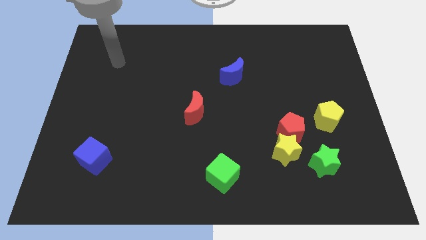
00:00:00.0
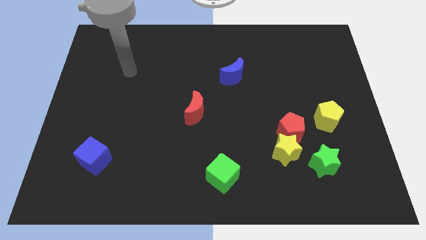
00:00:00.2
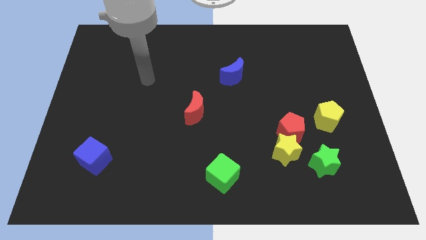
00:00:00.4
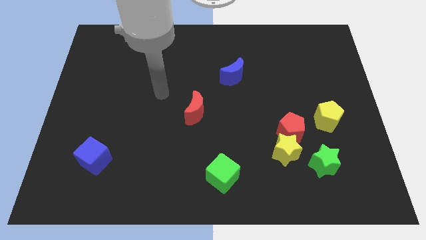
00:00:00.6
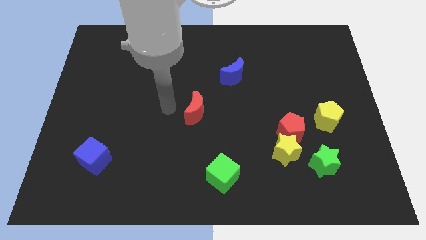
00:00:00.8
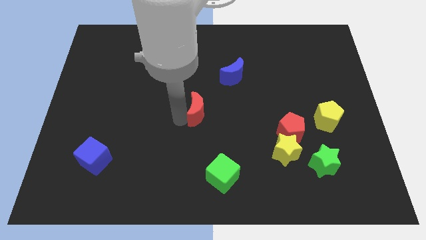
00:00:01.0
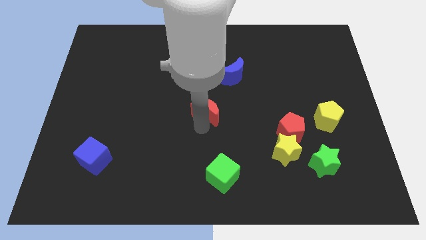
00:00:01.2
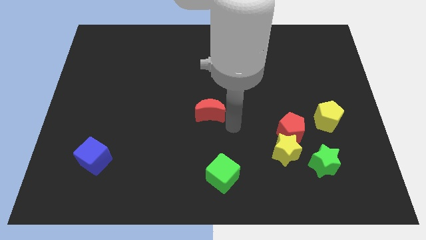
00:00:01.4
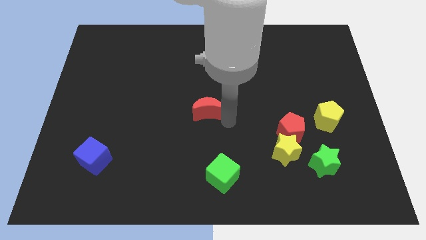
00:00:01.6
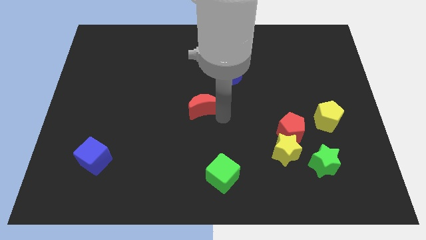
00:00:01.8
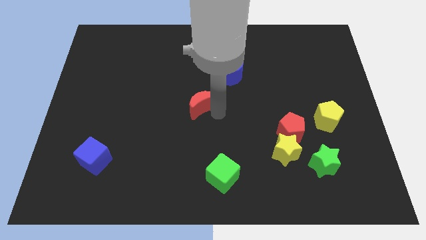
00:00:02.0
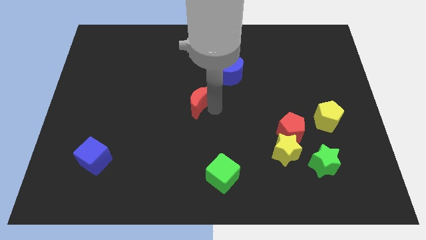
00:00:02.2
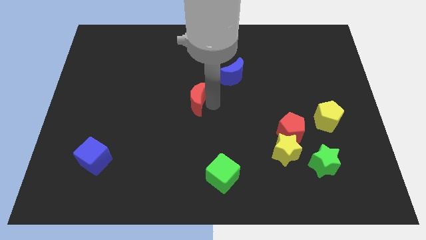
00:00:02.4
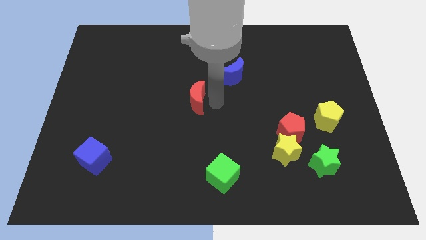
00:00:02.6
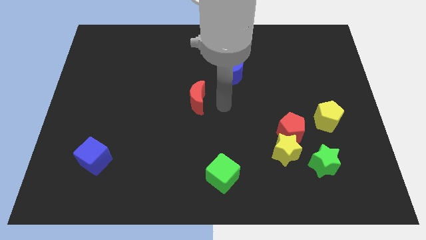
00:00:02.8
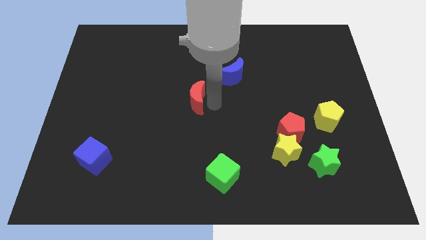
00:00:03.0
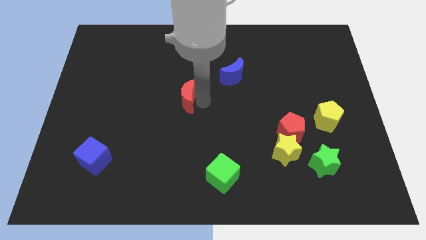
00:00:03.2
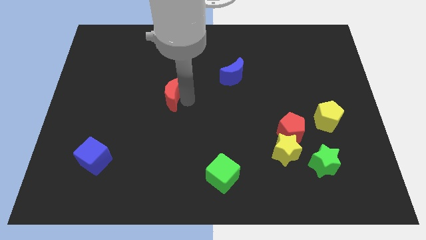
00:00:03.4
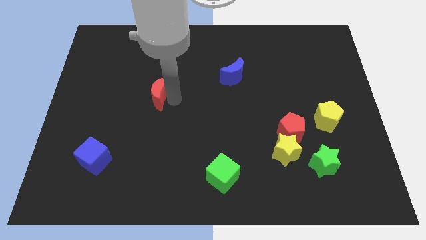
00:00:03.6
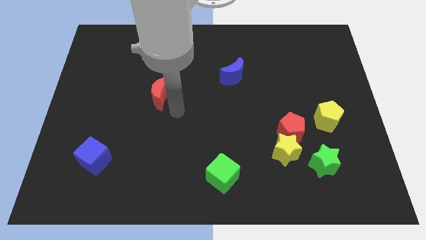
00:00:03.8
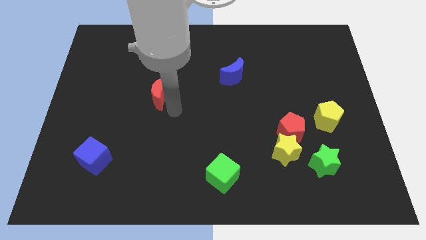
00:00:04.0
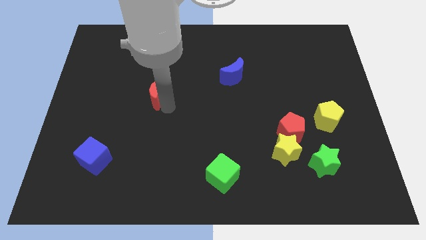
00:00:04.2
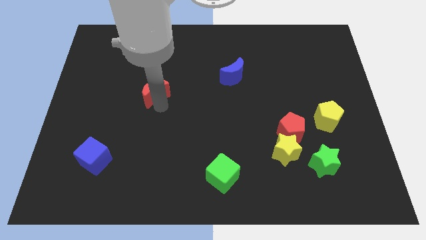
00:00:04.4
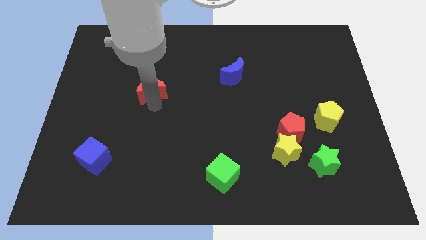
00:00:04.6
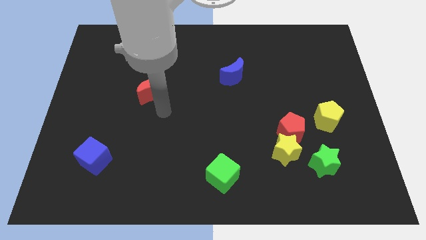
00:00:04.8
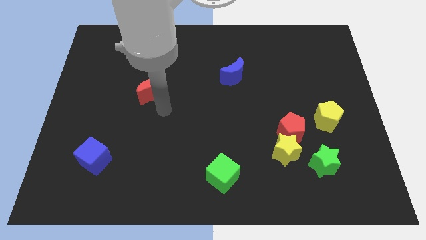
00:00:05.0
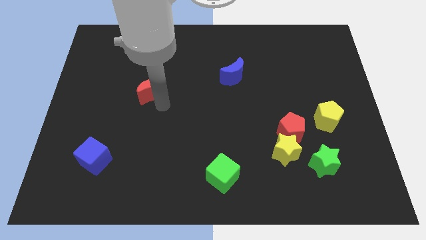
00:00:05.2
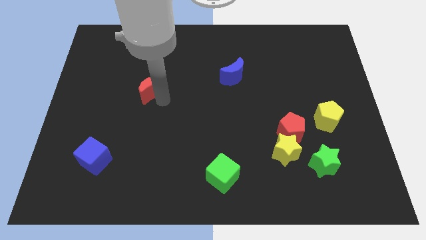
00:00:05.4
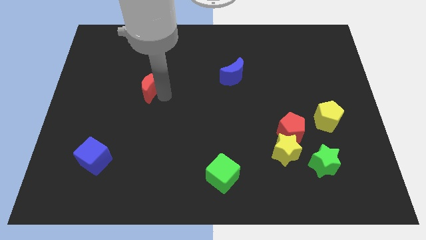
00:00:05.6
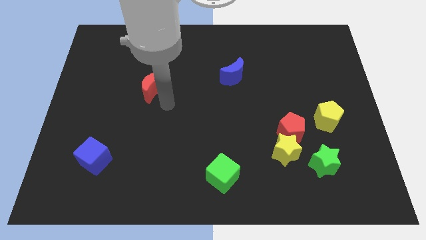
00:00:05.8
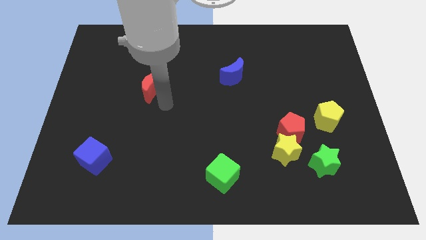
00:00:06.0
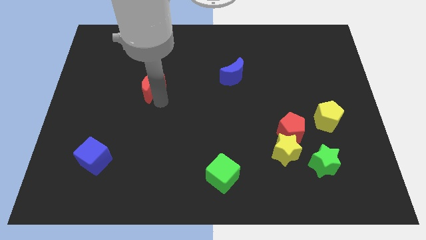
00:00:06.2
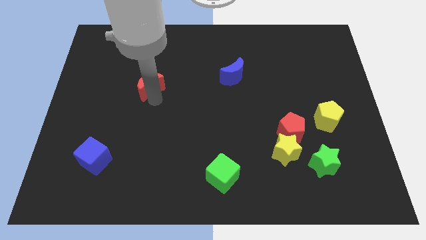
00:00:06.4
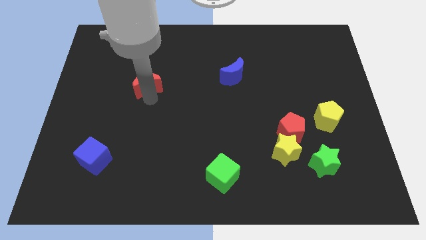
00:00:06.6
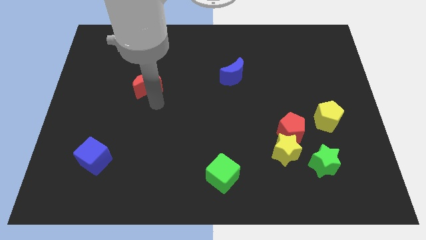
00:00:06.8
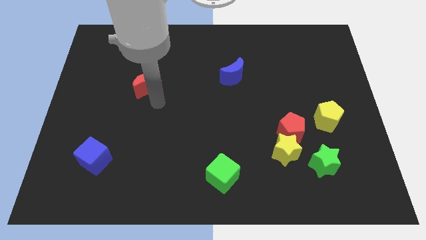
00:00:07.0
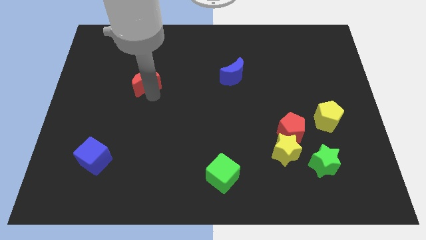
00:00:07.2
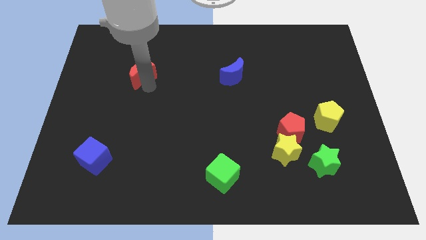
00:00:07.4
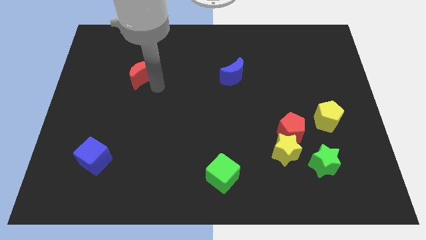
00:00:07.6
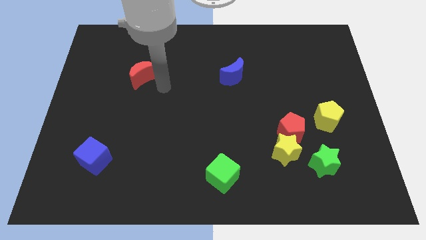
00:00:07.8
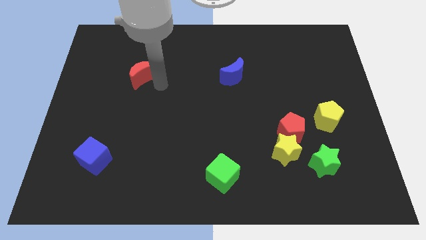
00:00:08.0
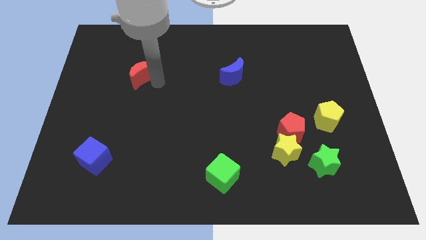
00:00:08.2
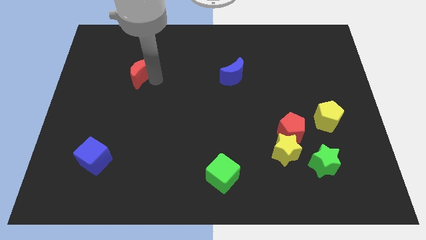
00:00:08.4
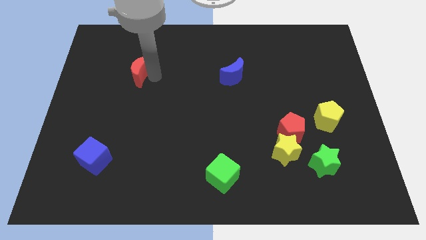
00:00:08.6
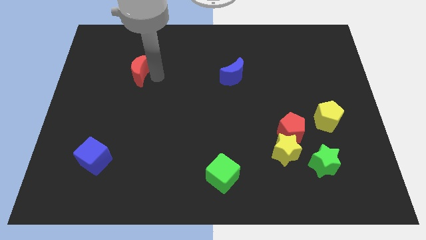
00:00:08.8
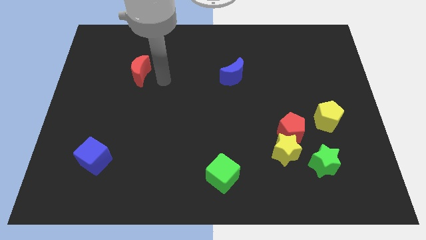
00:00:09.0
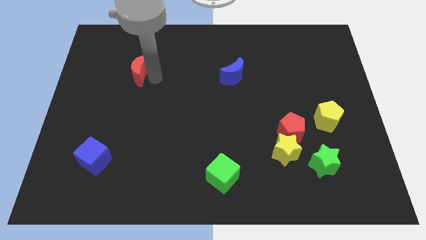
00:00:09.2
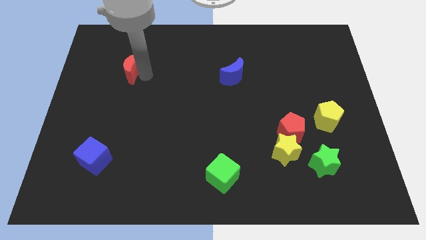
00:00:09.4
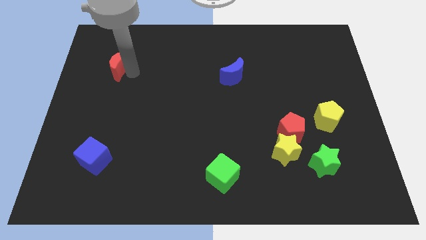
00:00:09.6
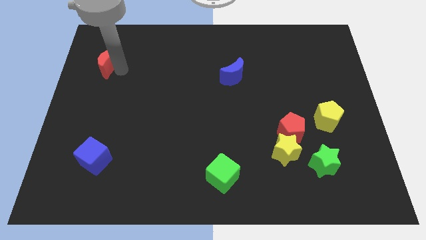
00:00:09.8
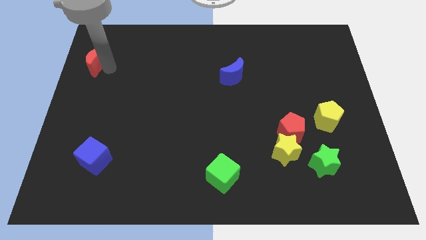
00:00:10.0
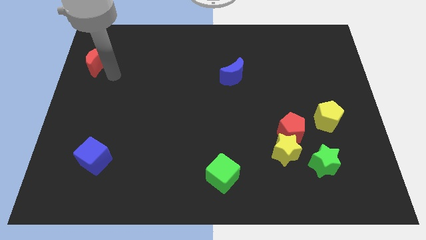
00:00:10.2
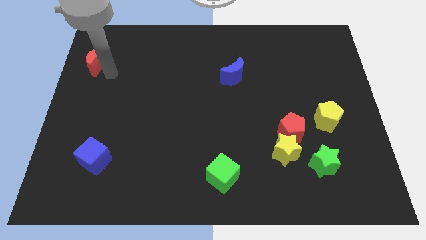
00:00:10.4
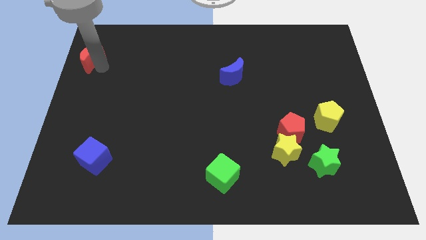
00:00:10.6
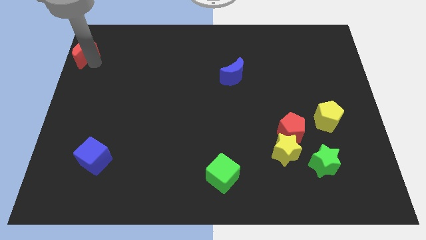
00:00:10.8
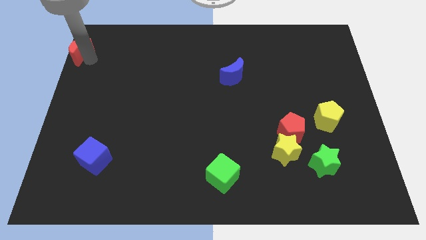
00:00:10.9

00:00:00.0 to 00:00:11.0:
slide the red moon to the top left
